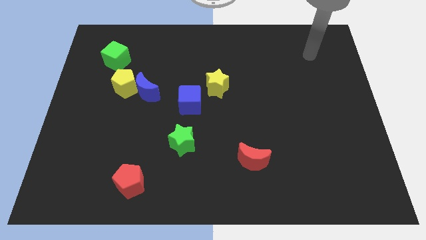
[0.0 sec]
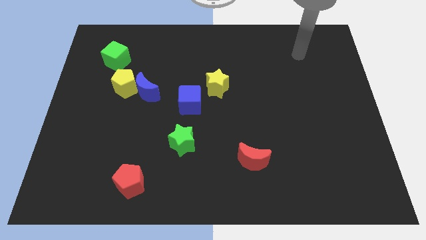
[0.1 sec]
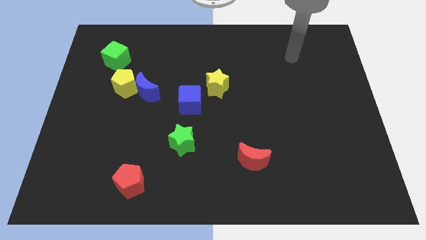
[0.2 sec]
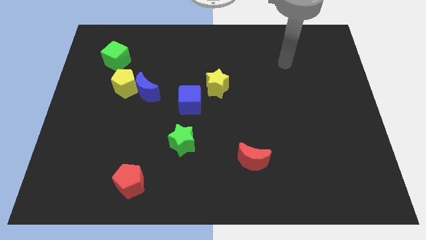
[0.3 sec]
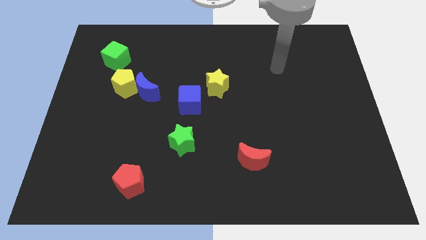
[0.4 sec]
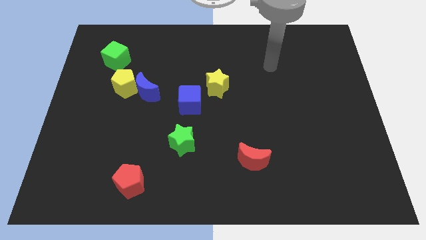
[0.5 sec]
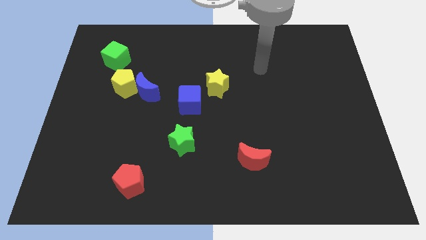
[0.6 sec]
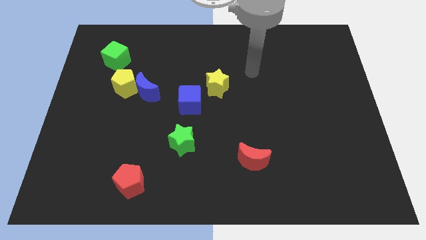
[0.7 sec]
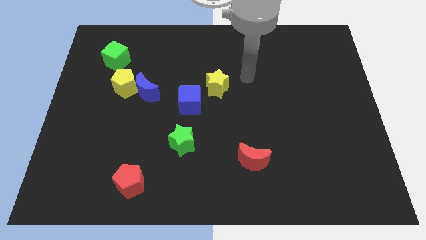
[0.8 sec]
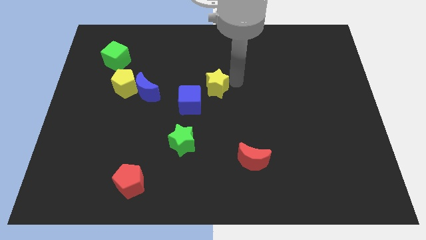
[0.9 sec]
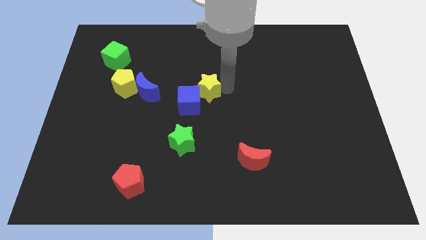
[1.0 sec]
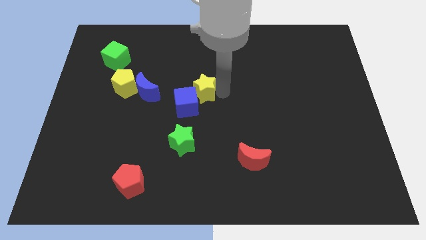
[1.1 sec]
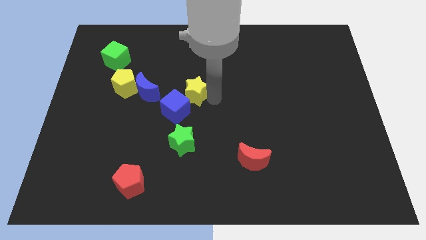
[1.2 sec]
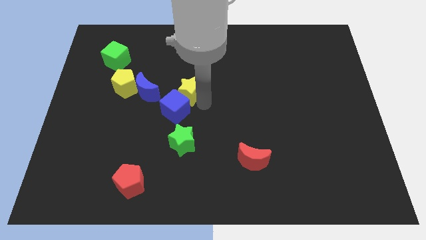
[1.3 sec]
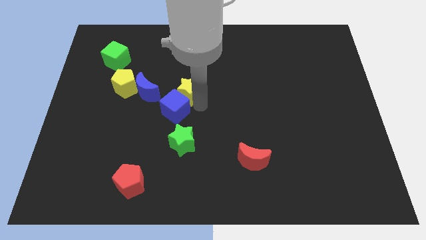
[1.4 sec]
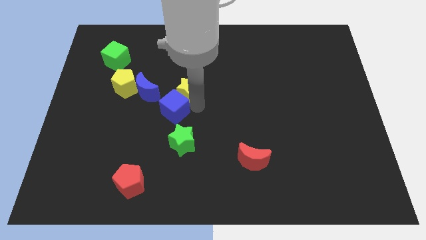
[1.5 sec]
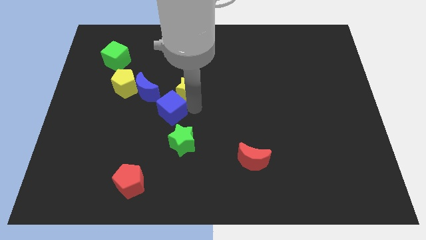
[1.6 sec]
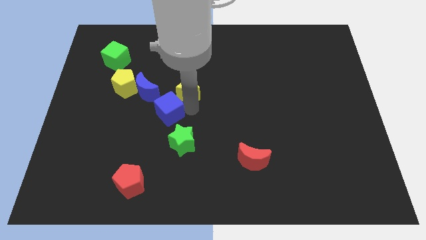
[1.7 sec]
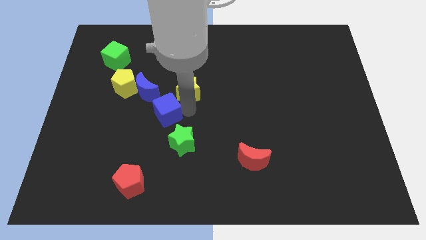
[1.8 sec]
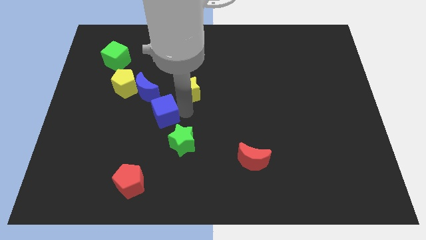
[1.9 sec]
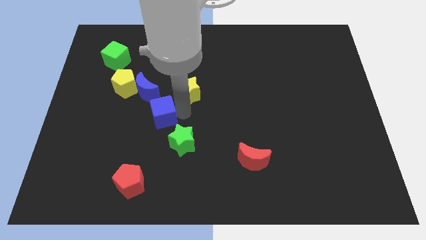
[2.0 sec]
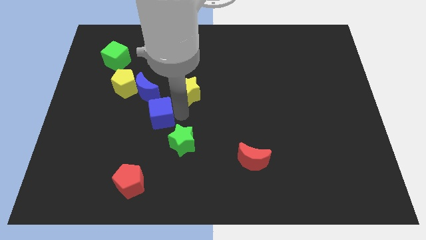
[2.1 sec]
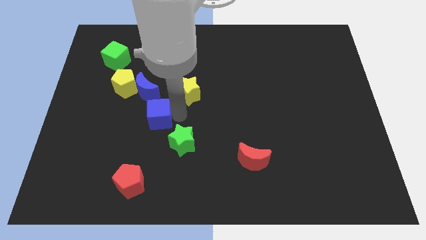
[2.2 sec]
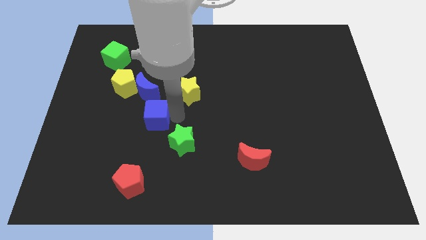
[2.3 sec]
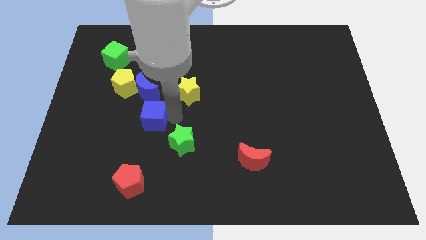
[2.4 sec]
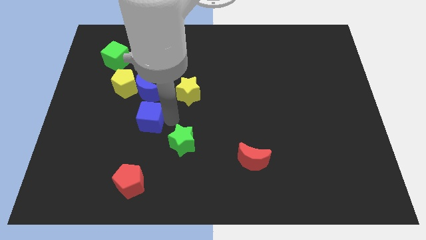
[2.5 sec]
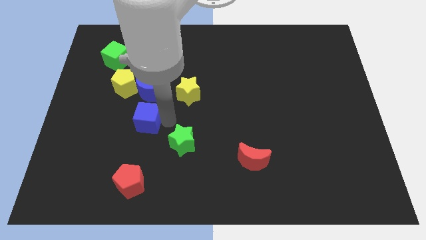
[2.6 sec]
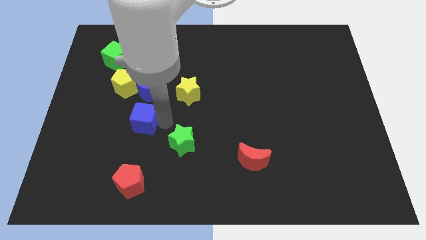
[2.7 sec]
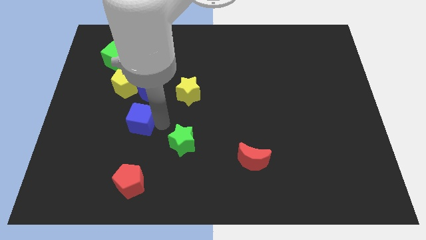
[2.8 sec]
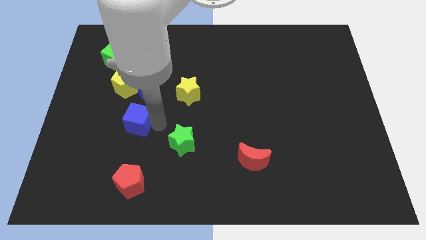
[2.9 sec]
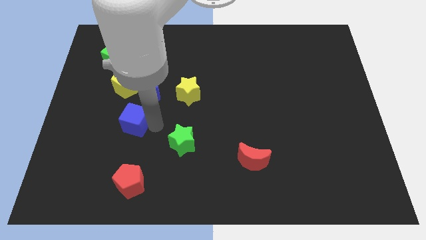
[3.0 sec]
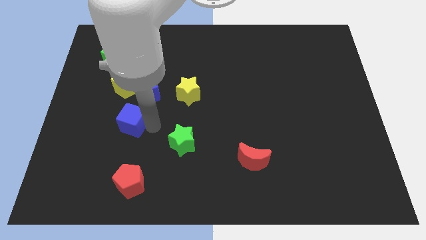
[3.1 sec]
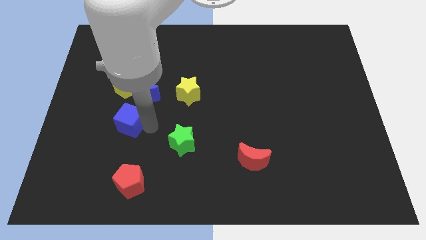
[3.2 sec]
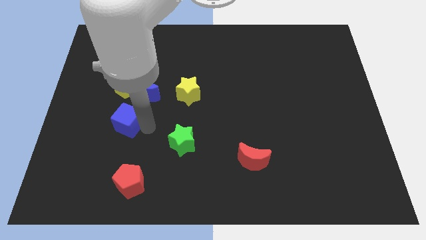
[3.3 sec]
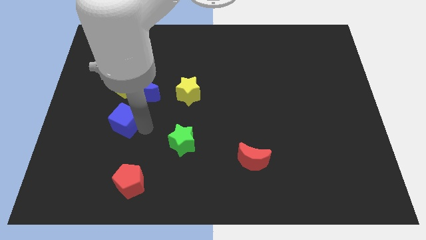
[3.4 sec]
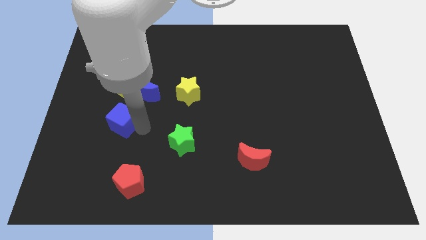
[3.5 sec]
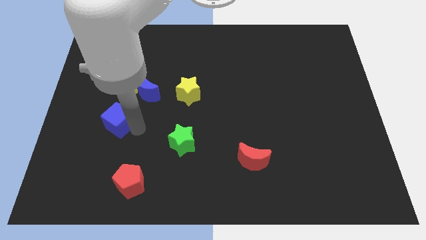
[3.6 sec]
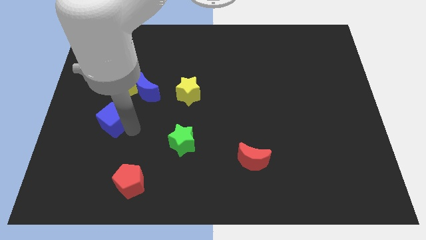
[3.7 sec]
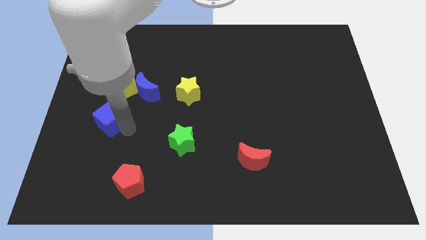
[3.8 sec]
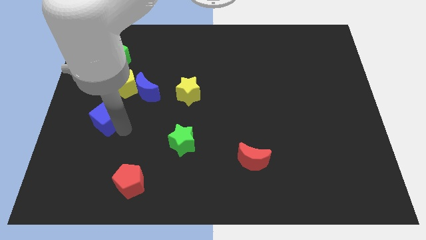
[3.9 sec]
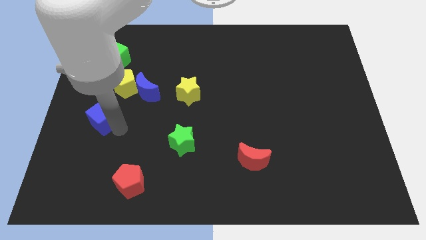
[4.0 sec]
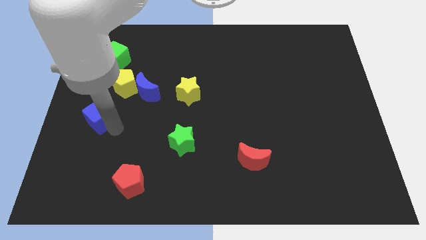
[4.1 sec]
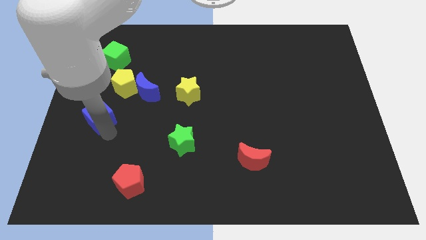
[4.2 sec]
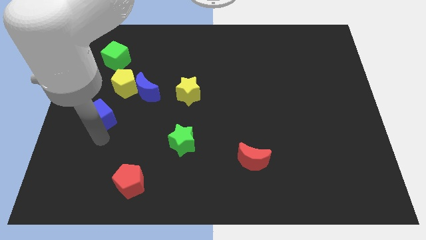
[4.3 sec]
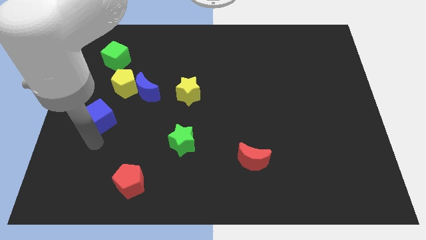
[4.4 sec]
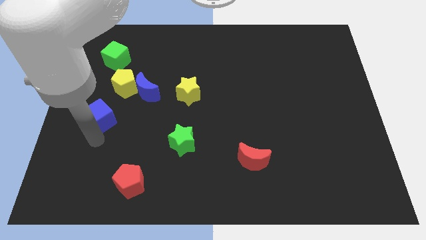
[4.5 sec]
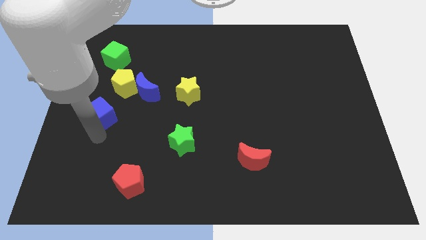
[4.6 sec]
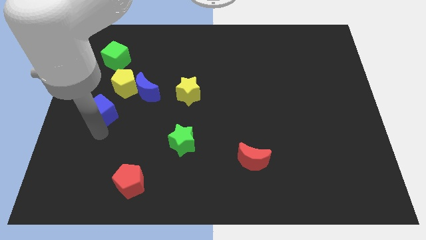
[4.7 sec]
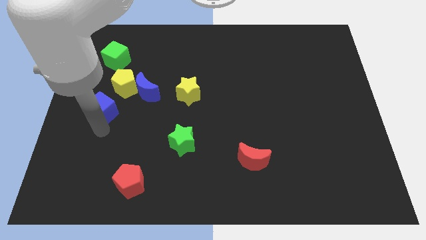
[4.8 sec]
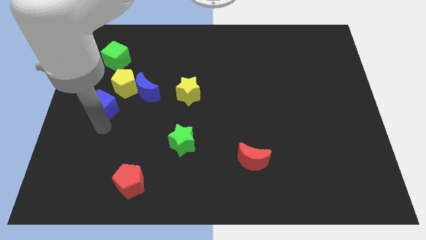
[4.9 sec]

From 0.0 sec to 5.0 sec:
push the blue cube to the bottom of the green cube

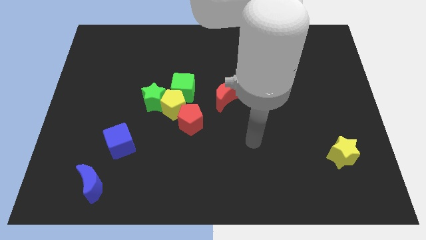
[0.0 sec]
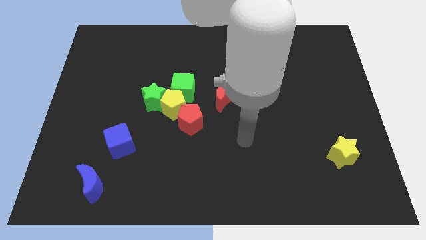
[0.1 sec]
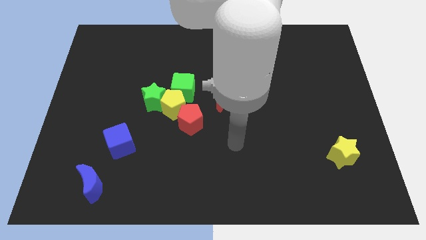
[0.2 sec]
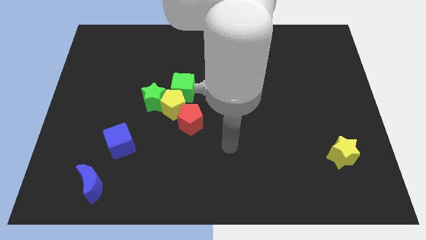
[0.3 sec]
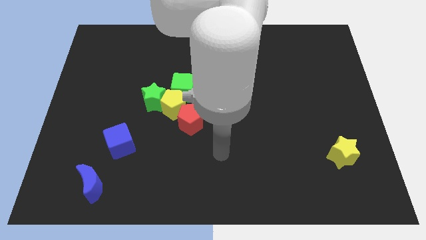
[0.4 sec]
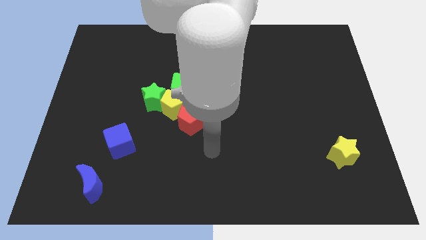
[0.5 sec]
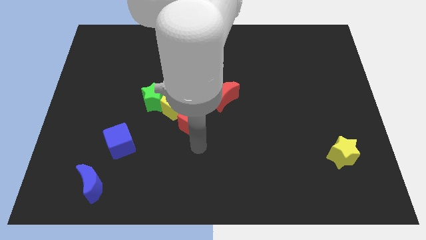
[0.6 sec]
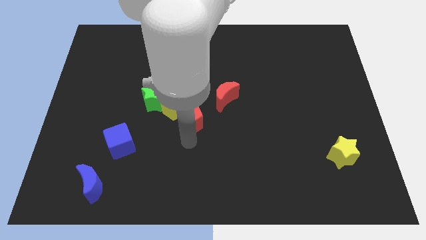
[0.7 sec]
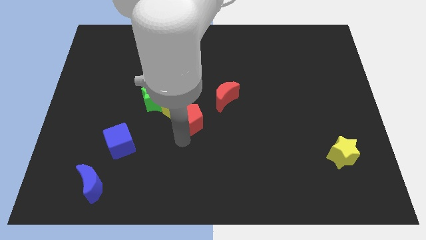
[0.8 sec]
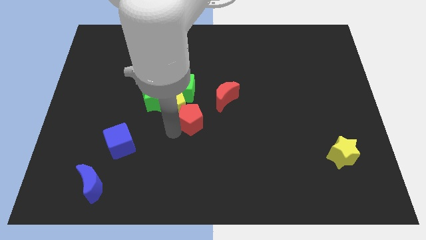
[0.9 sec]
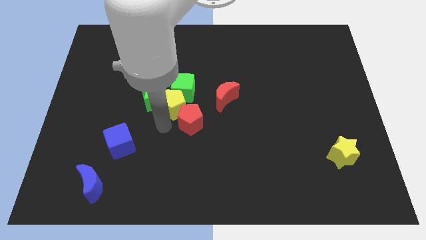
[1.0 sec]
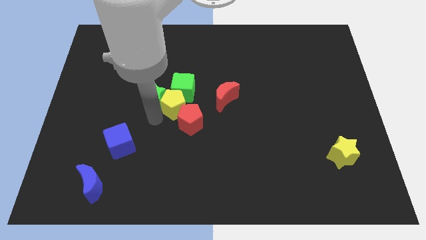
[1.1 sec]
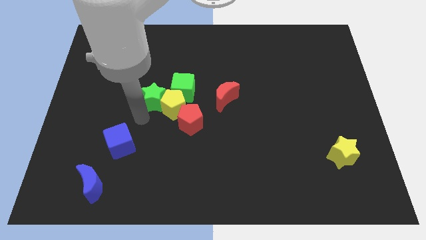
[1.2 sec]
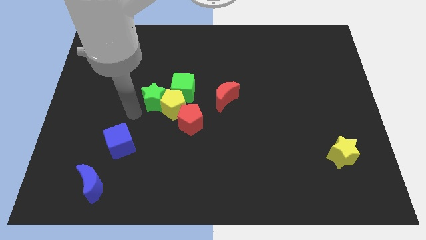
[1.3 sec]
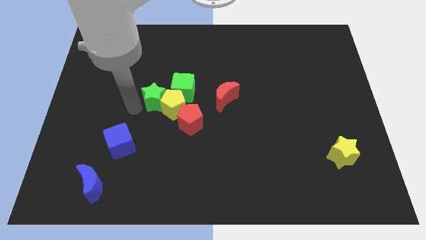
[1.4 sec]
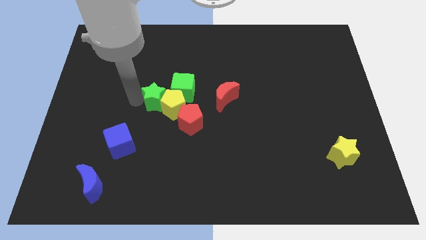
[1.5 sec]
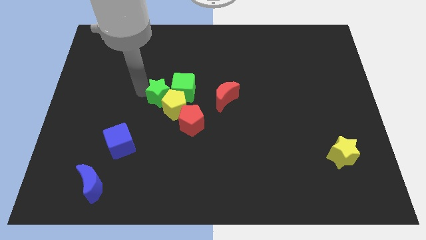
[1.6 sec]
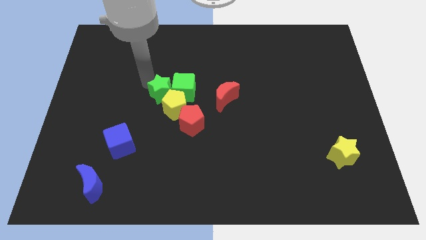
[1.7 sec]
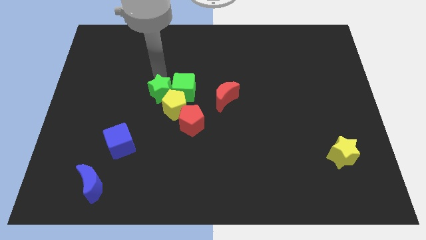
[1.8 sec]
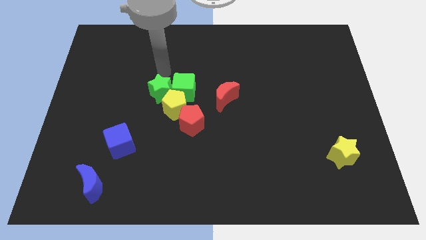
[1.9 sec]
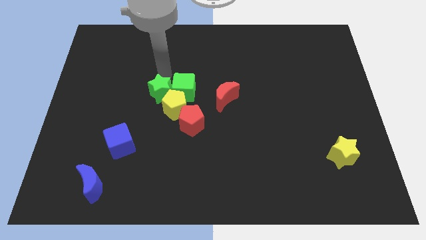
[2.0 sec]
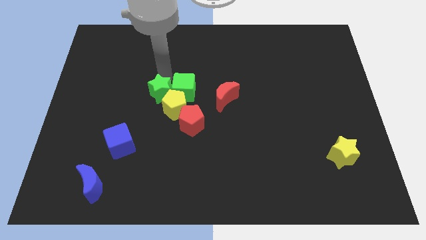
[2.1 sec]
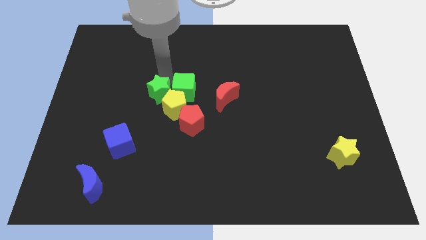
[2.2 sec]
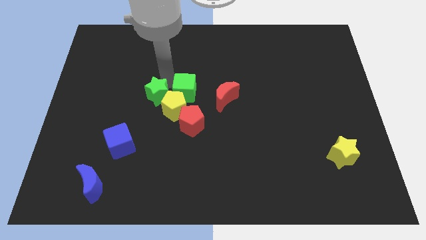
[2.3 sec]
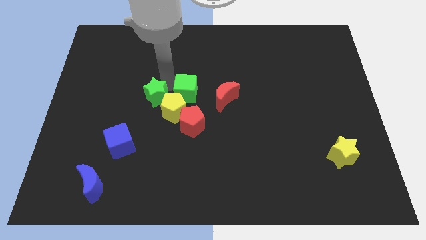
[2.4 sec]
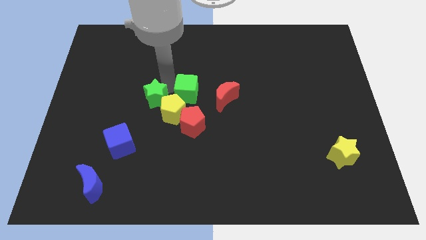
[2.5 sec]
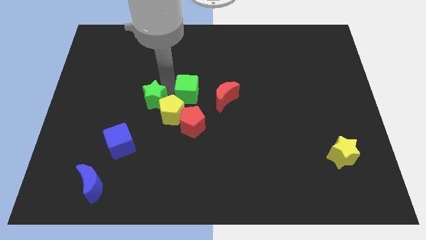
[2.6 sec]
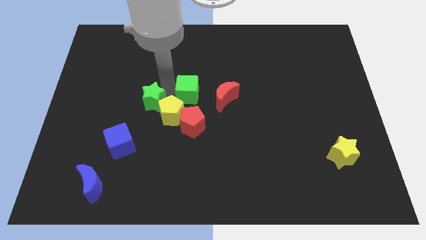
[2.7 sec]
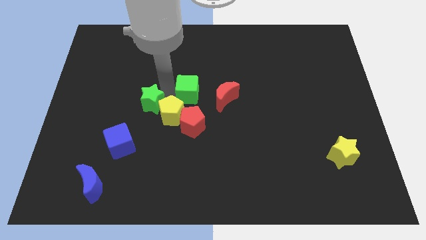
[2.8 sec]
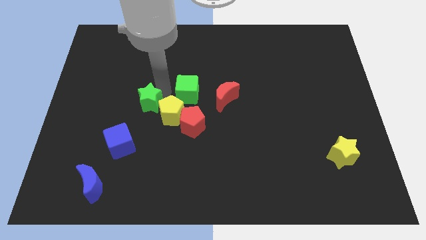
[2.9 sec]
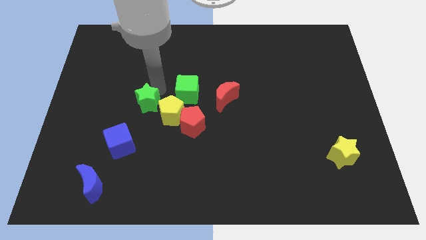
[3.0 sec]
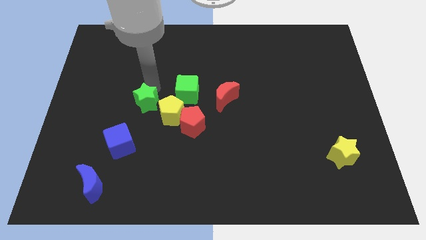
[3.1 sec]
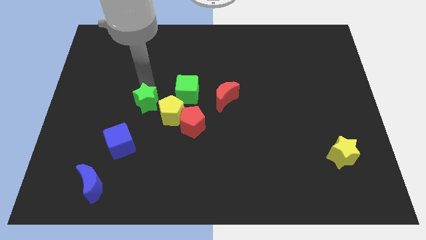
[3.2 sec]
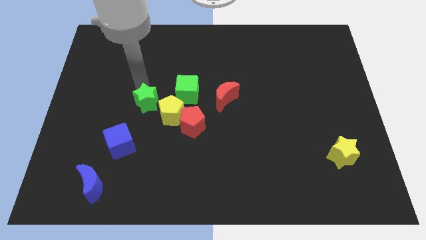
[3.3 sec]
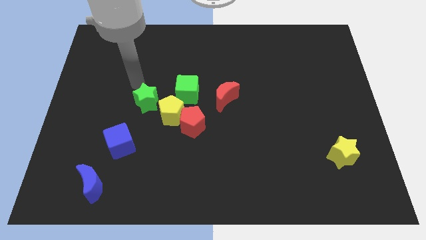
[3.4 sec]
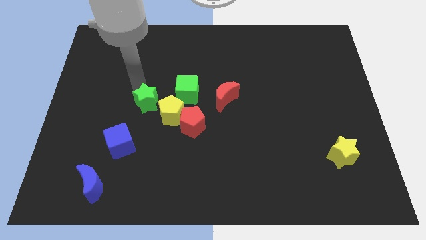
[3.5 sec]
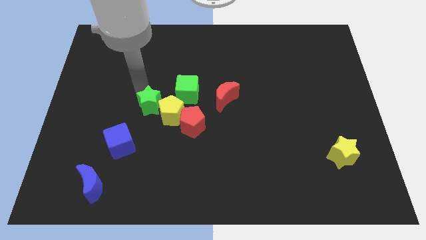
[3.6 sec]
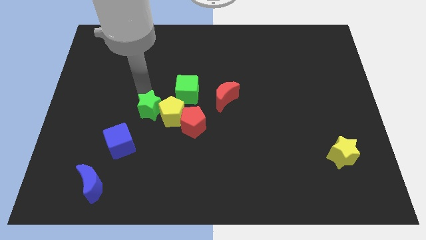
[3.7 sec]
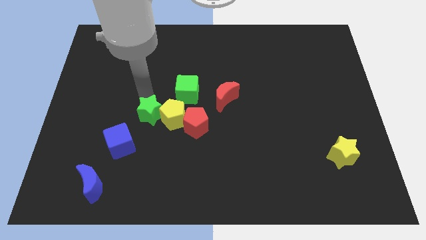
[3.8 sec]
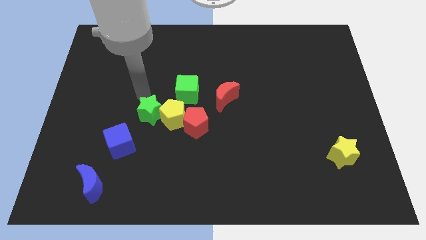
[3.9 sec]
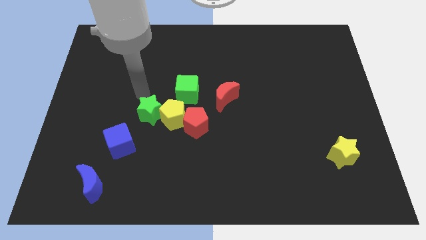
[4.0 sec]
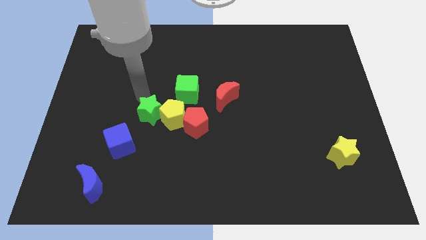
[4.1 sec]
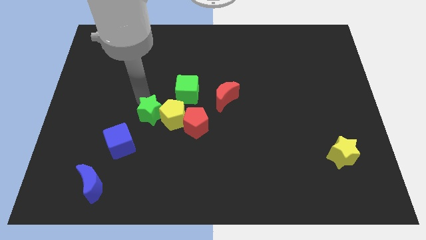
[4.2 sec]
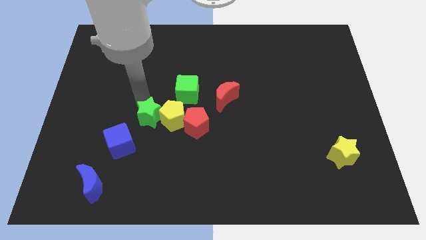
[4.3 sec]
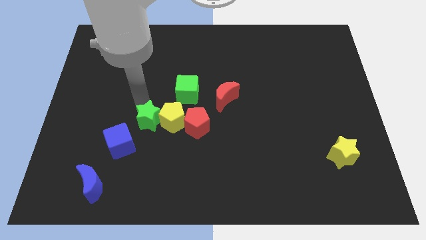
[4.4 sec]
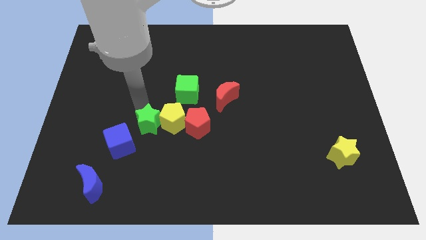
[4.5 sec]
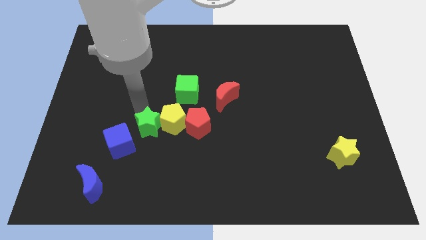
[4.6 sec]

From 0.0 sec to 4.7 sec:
push the green star just right of the blue cube
